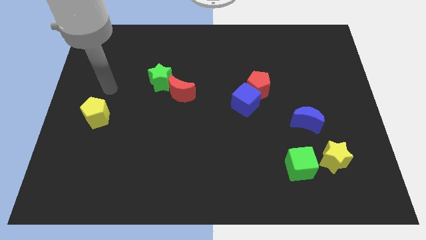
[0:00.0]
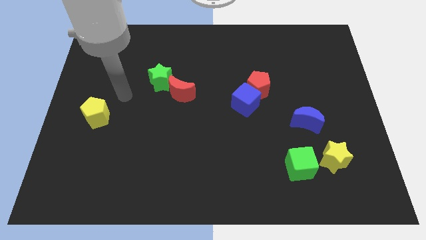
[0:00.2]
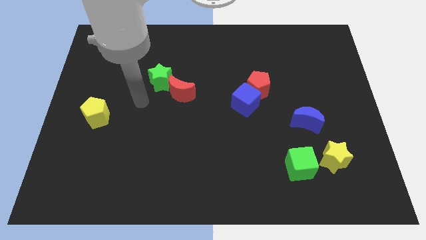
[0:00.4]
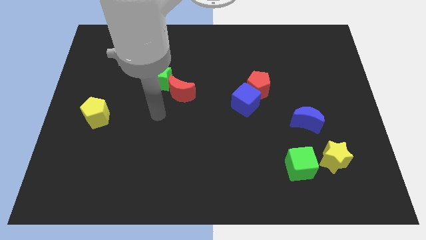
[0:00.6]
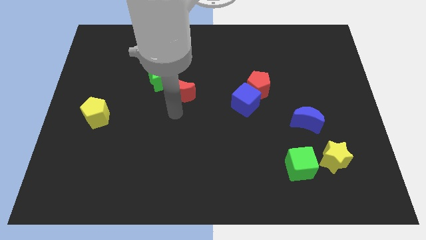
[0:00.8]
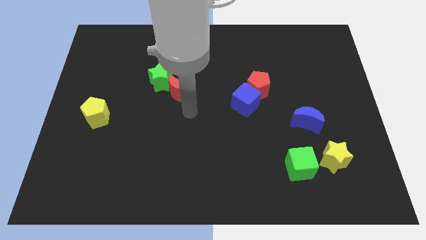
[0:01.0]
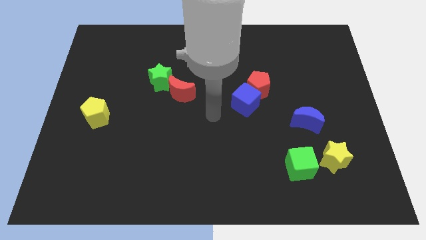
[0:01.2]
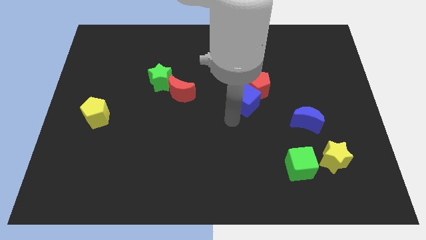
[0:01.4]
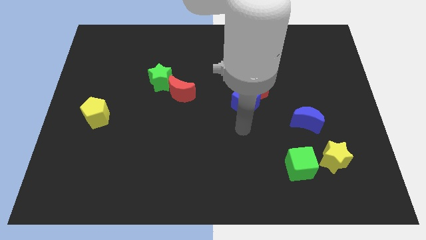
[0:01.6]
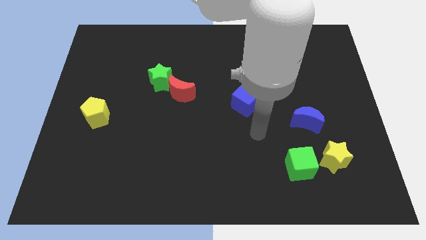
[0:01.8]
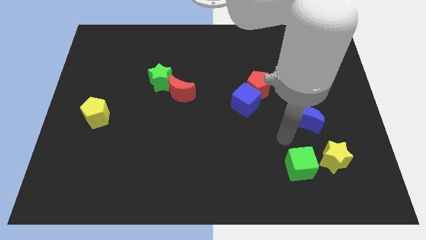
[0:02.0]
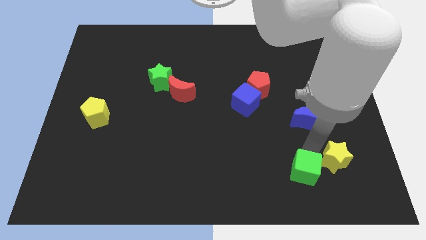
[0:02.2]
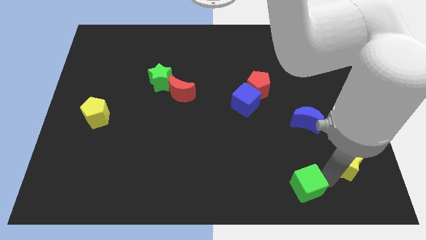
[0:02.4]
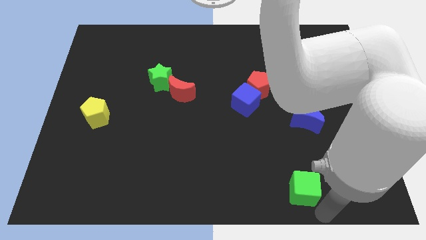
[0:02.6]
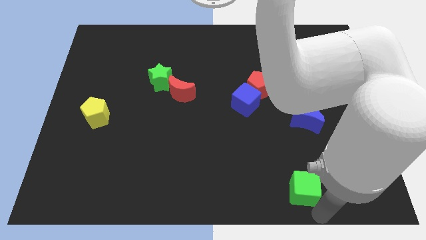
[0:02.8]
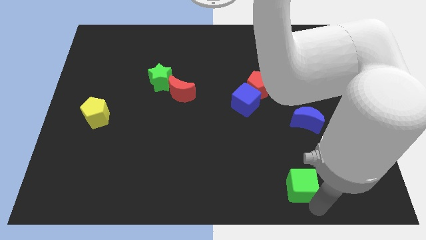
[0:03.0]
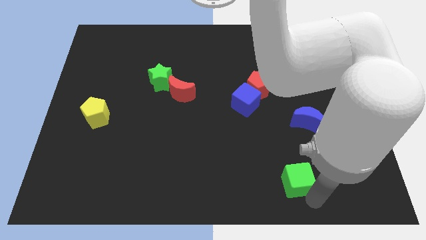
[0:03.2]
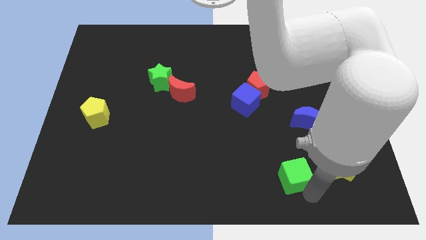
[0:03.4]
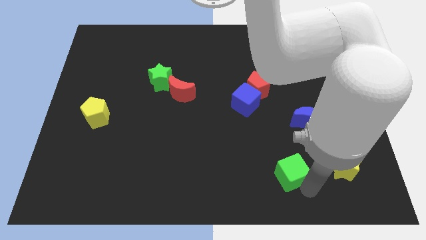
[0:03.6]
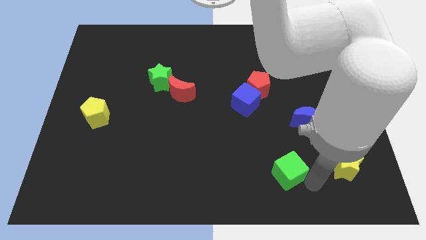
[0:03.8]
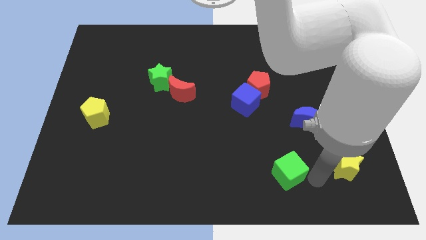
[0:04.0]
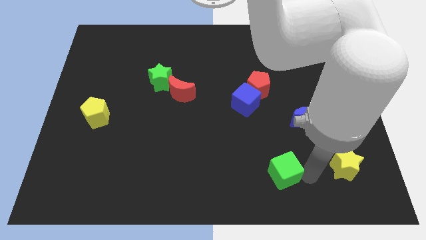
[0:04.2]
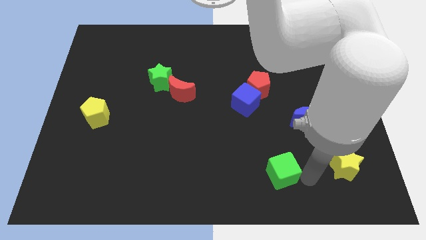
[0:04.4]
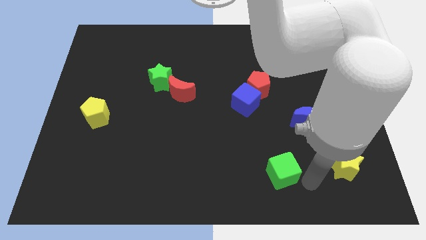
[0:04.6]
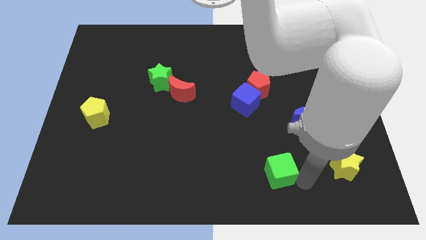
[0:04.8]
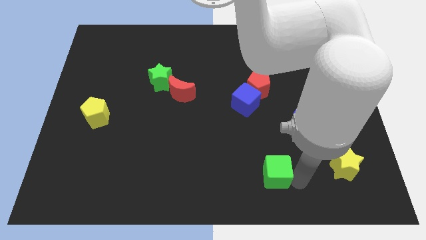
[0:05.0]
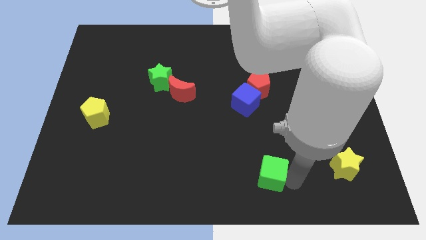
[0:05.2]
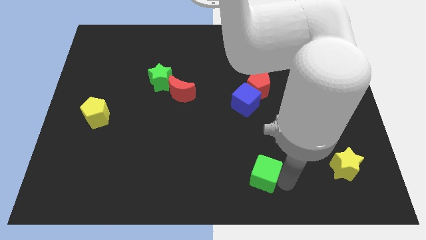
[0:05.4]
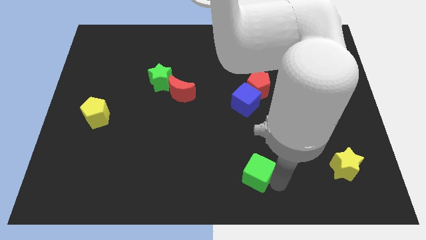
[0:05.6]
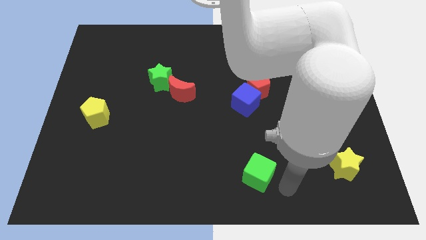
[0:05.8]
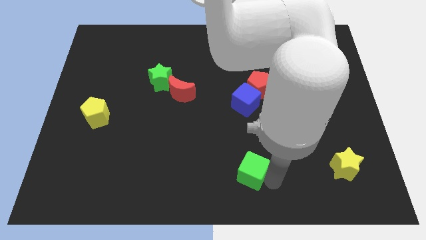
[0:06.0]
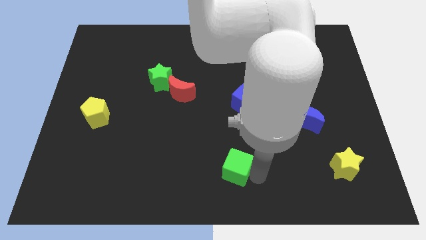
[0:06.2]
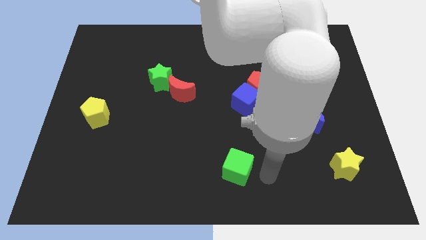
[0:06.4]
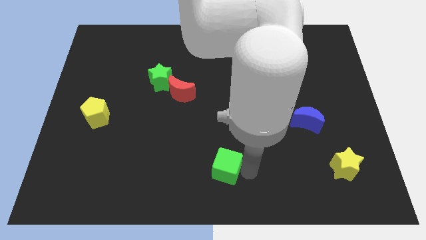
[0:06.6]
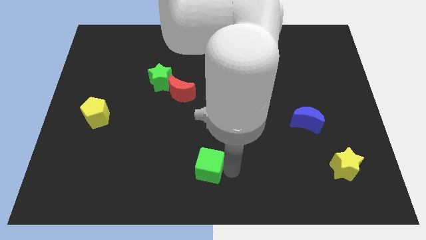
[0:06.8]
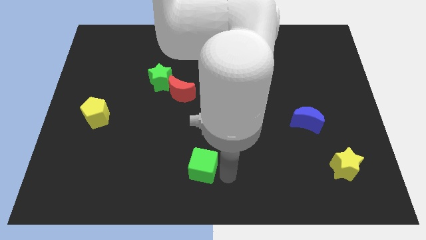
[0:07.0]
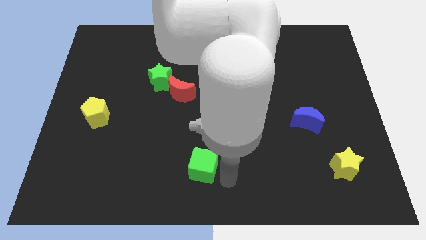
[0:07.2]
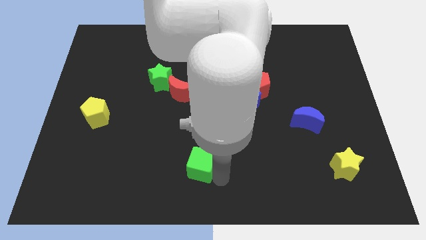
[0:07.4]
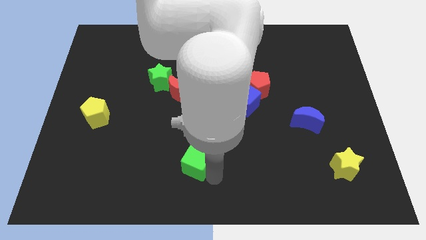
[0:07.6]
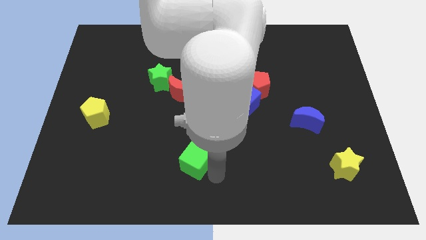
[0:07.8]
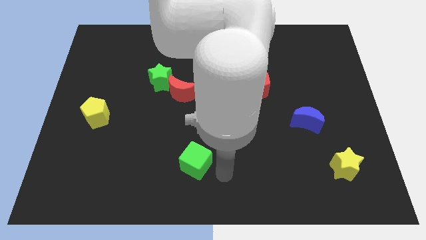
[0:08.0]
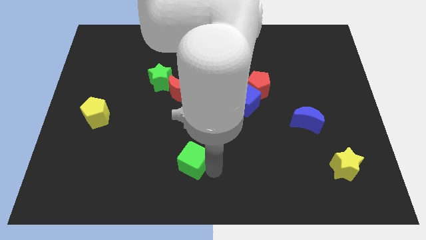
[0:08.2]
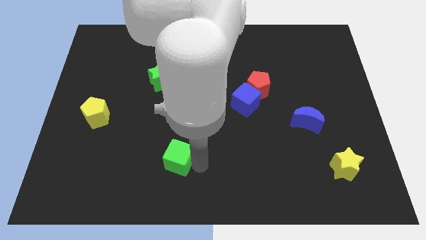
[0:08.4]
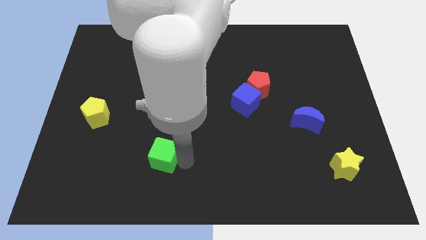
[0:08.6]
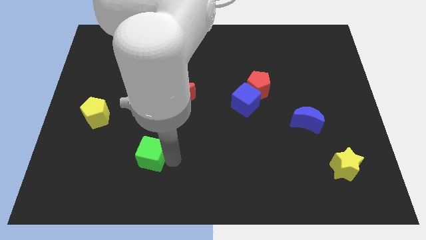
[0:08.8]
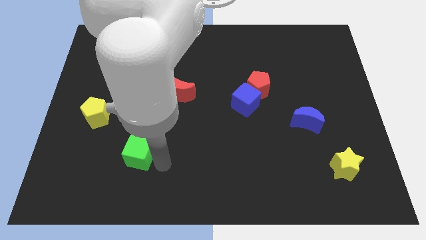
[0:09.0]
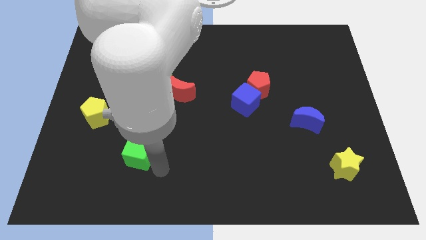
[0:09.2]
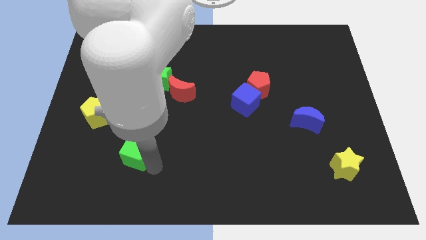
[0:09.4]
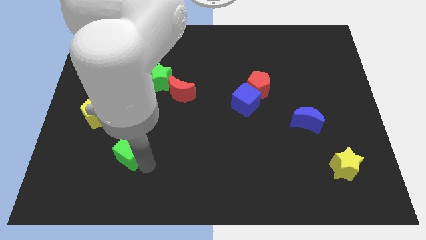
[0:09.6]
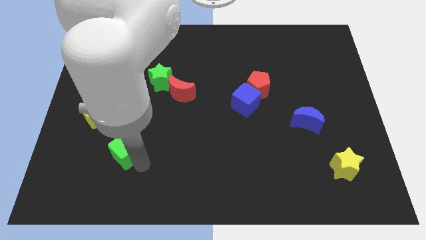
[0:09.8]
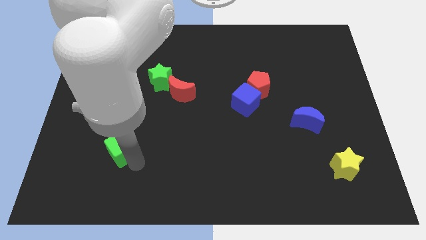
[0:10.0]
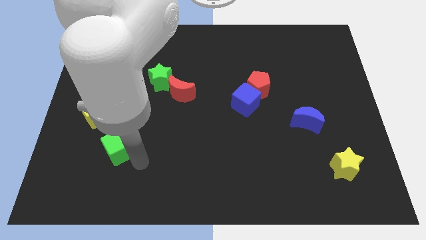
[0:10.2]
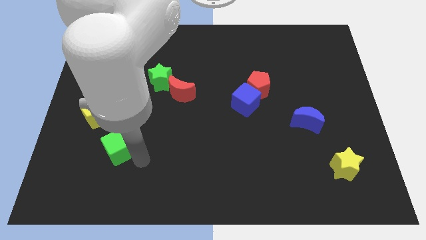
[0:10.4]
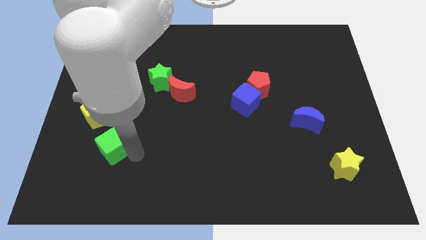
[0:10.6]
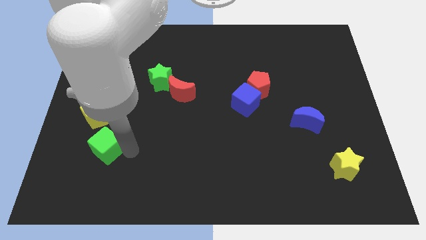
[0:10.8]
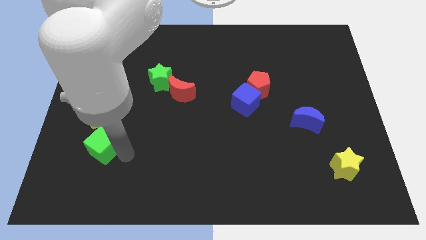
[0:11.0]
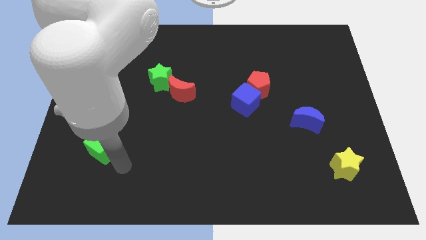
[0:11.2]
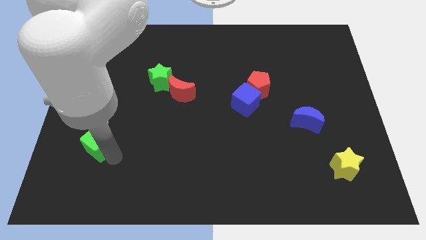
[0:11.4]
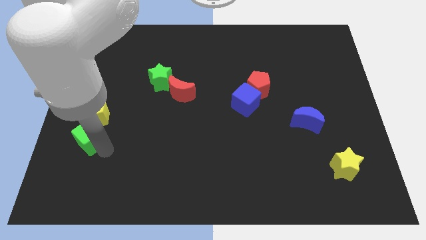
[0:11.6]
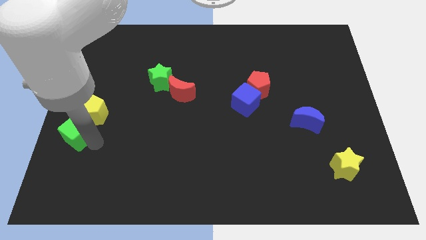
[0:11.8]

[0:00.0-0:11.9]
push the green cube to the left side of the board
